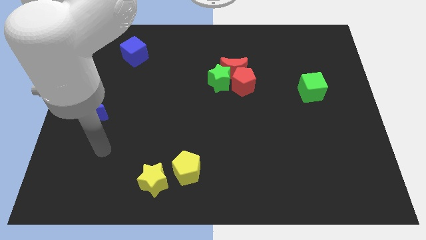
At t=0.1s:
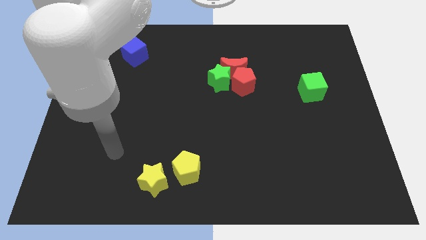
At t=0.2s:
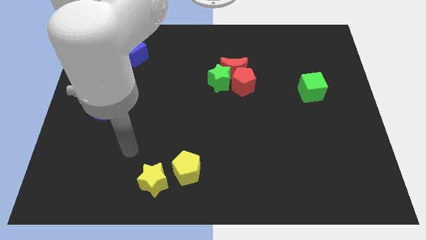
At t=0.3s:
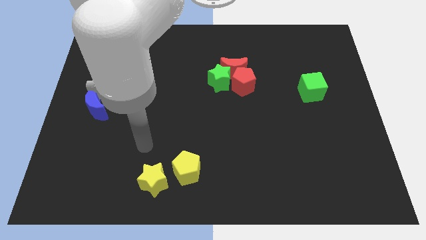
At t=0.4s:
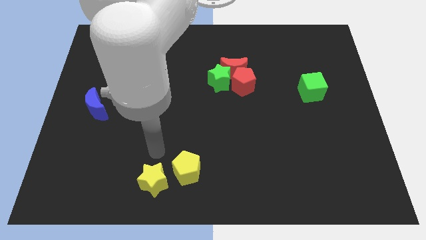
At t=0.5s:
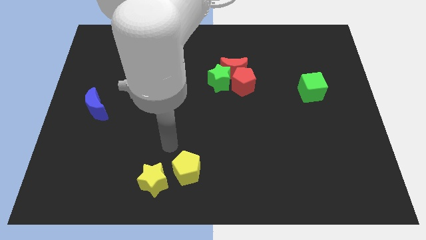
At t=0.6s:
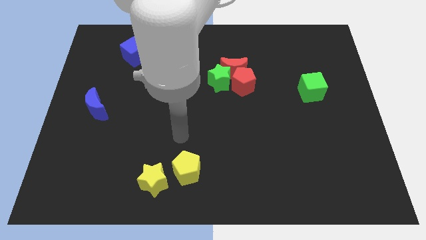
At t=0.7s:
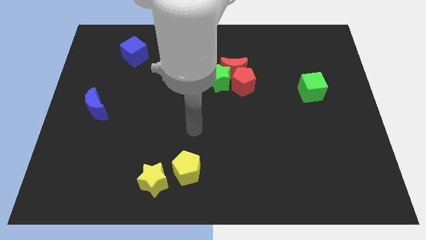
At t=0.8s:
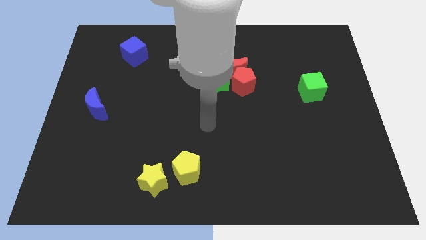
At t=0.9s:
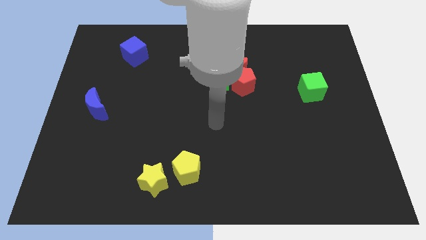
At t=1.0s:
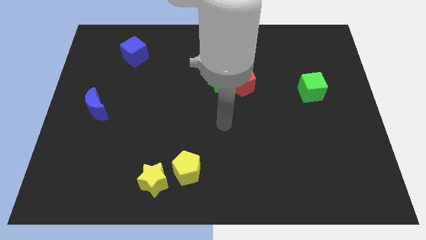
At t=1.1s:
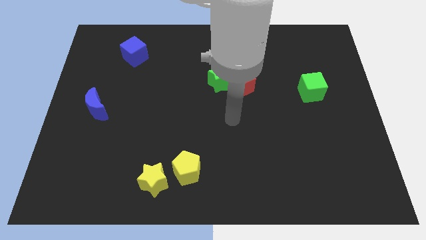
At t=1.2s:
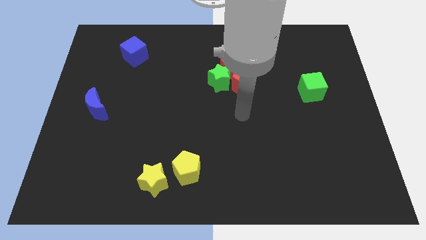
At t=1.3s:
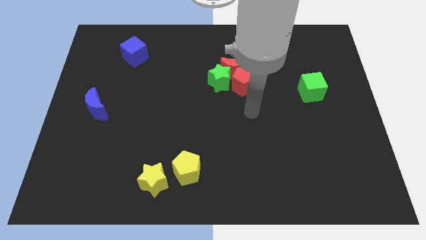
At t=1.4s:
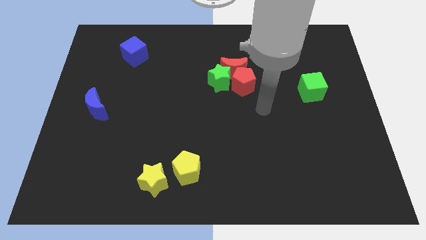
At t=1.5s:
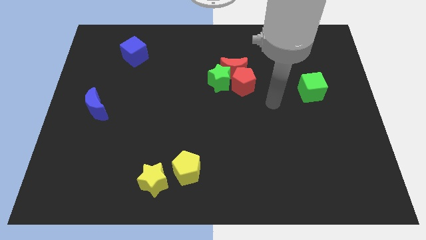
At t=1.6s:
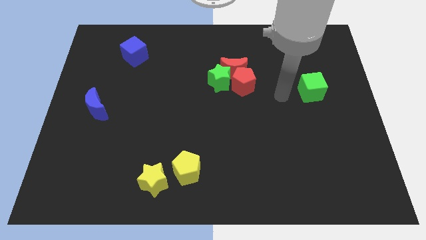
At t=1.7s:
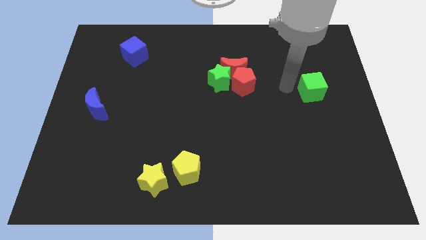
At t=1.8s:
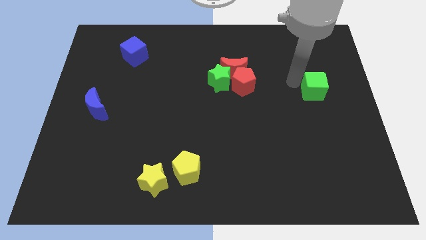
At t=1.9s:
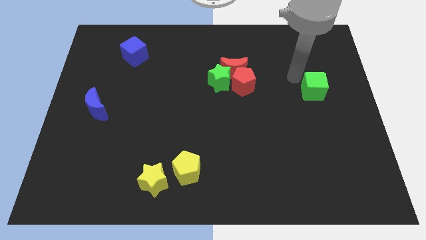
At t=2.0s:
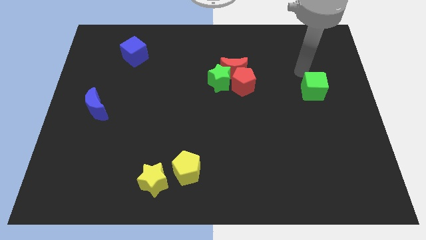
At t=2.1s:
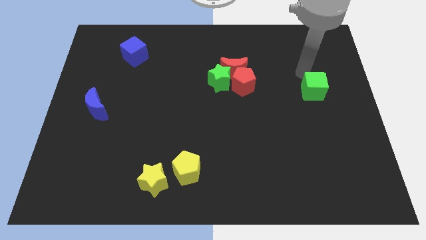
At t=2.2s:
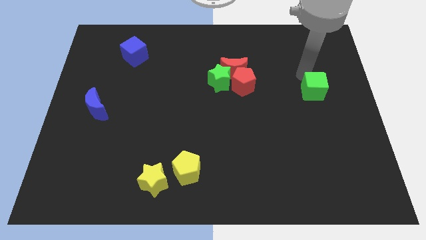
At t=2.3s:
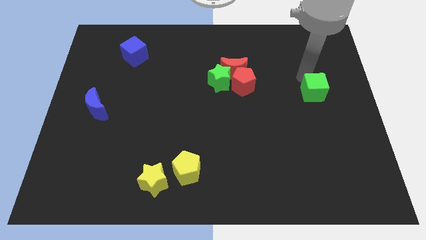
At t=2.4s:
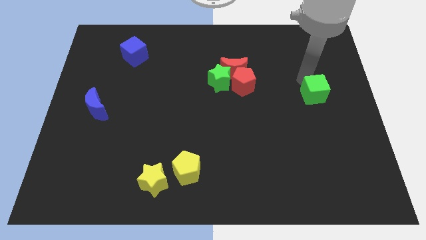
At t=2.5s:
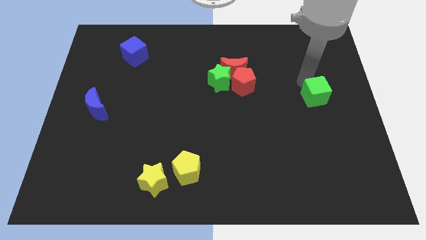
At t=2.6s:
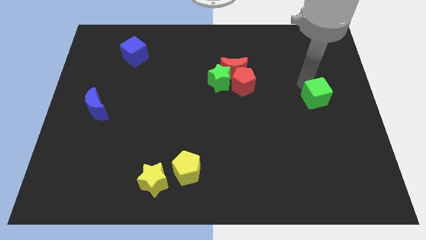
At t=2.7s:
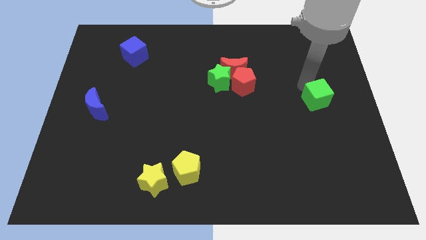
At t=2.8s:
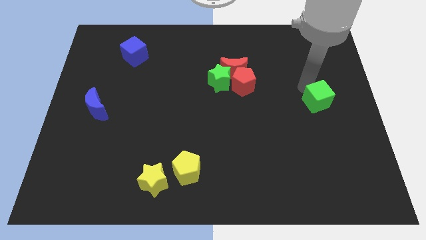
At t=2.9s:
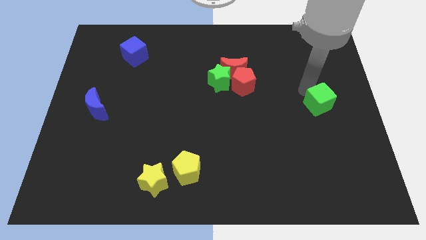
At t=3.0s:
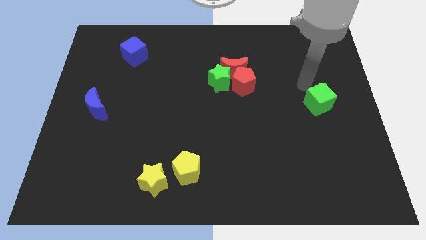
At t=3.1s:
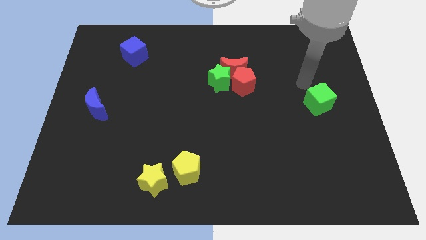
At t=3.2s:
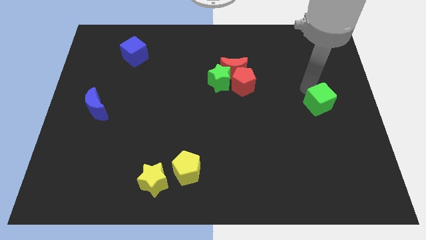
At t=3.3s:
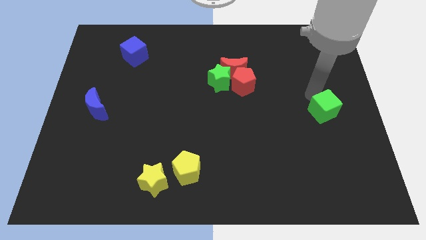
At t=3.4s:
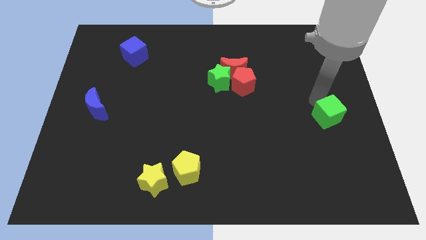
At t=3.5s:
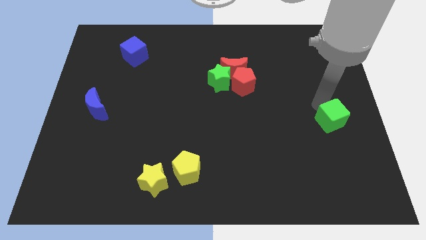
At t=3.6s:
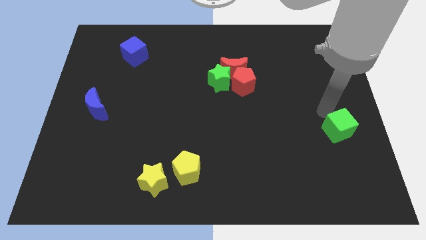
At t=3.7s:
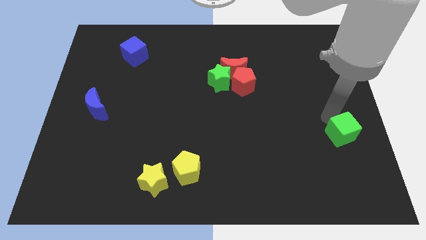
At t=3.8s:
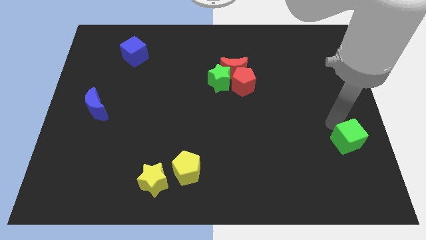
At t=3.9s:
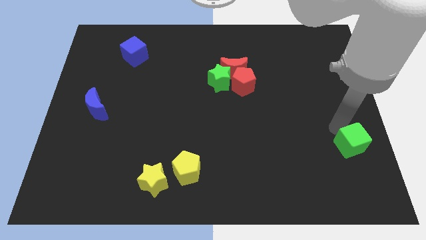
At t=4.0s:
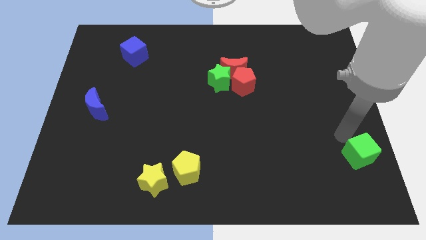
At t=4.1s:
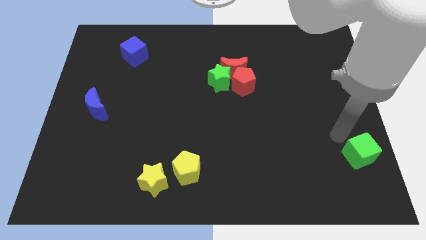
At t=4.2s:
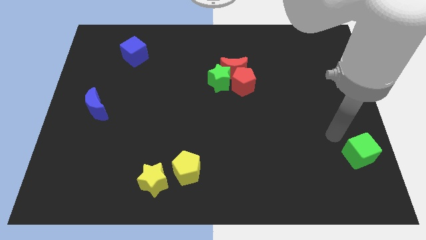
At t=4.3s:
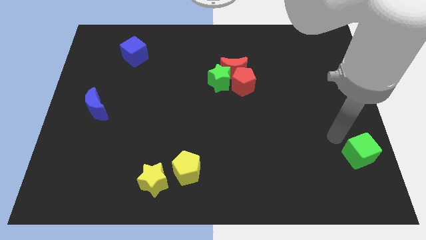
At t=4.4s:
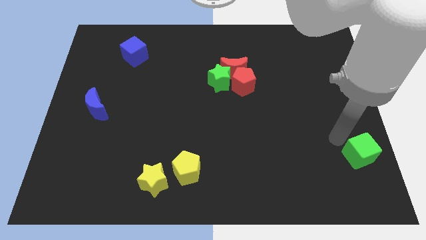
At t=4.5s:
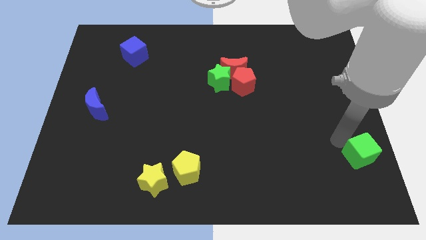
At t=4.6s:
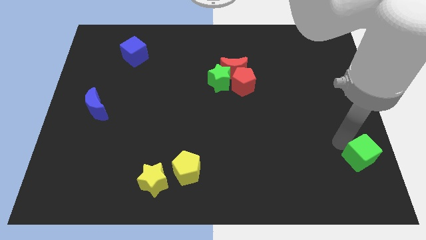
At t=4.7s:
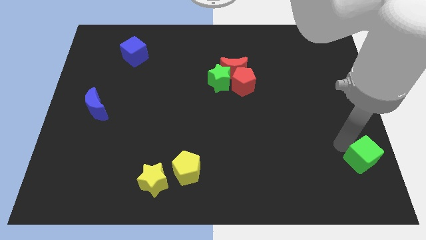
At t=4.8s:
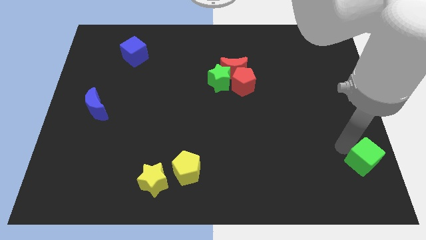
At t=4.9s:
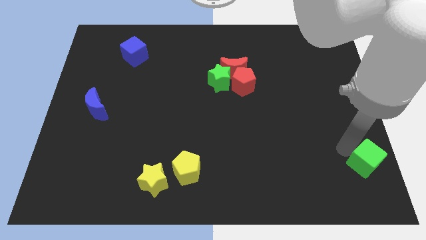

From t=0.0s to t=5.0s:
move the green cube to the bottom right

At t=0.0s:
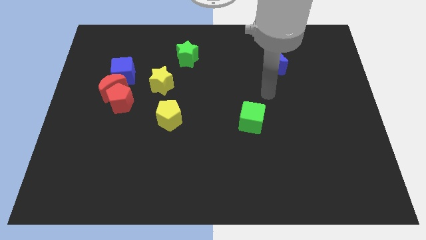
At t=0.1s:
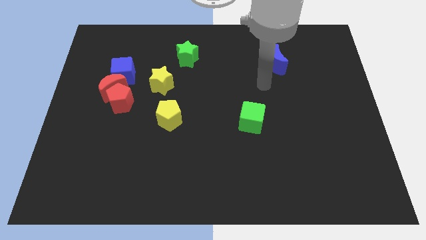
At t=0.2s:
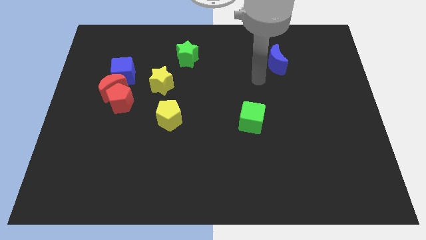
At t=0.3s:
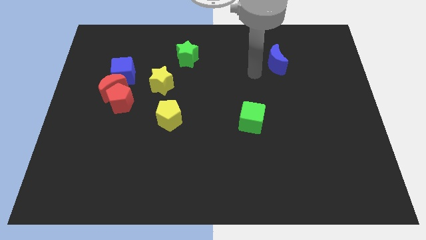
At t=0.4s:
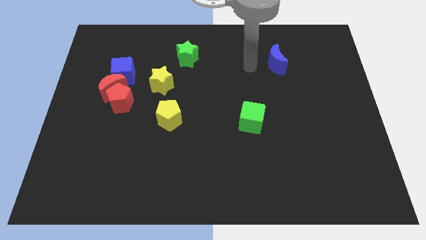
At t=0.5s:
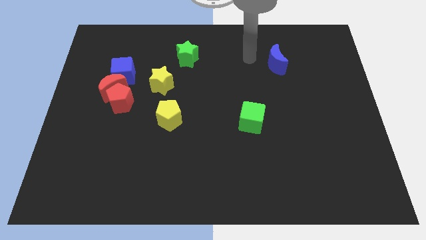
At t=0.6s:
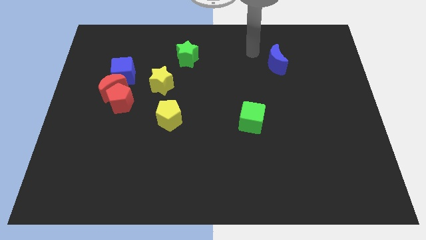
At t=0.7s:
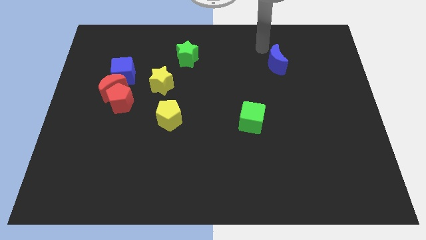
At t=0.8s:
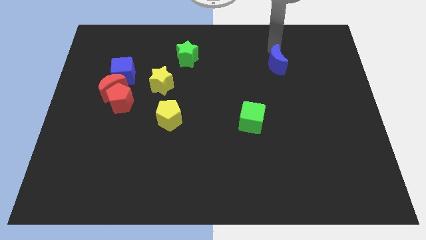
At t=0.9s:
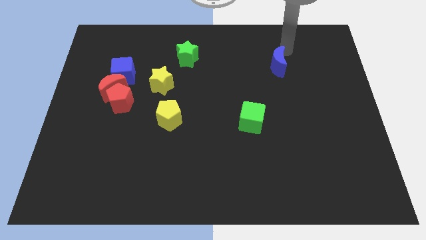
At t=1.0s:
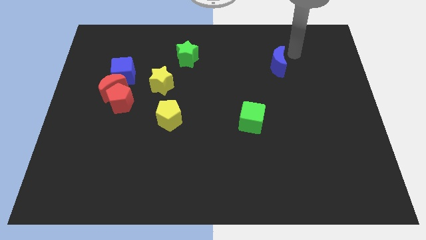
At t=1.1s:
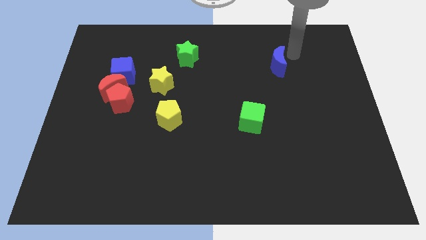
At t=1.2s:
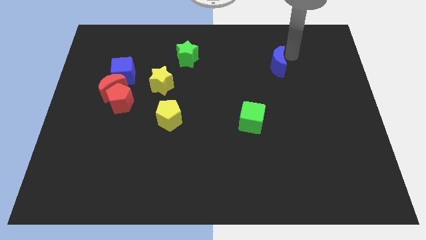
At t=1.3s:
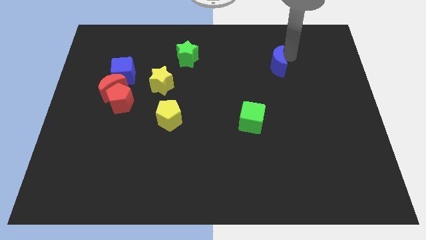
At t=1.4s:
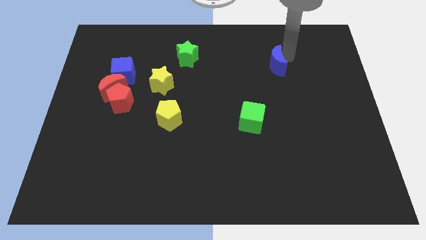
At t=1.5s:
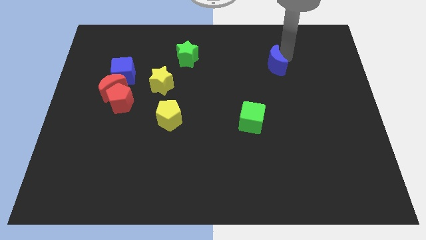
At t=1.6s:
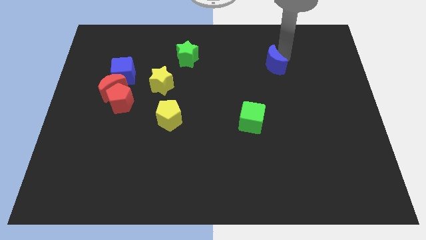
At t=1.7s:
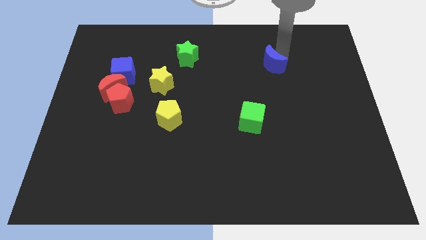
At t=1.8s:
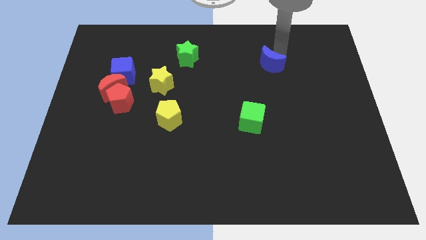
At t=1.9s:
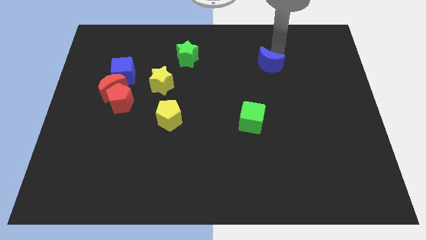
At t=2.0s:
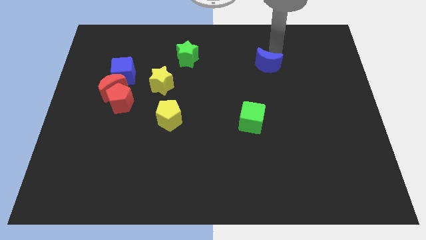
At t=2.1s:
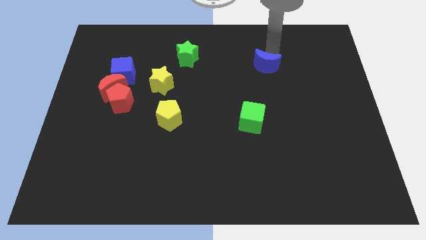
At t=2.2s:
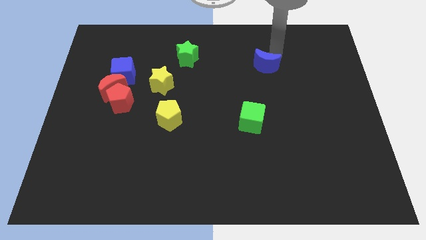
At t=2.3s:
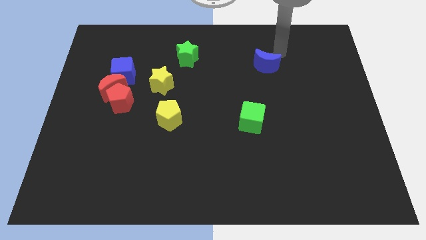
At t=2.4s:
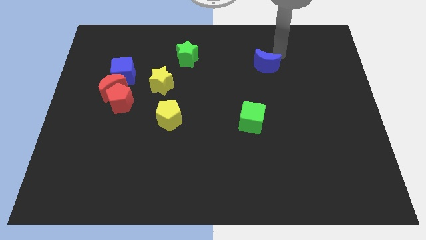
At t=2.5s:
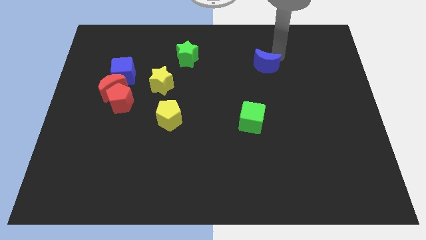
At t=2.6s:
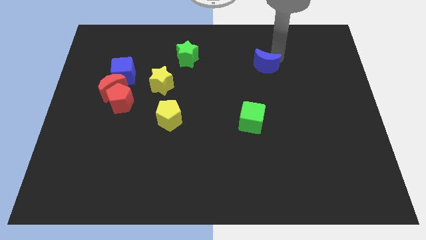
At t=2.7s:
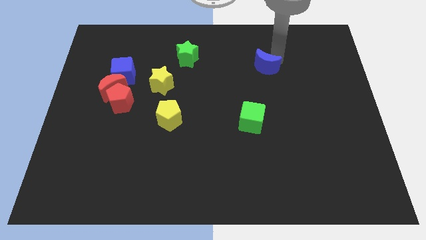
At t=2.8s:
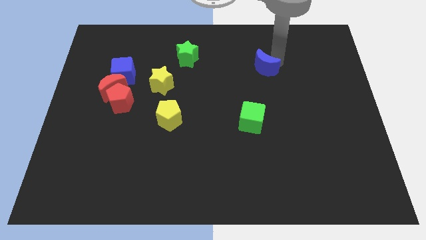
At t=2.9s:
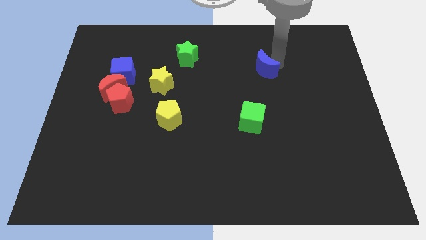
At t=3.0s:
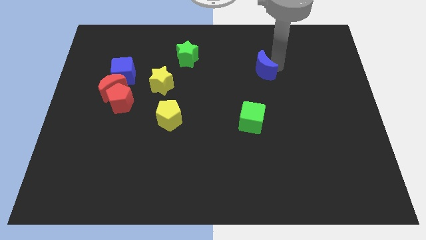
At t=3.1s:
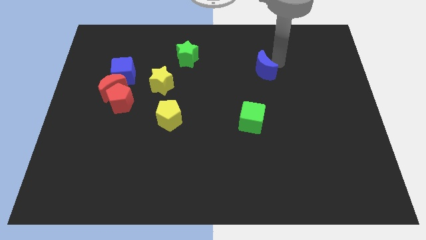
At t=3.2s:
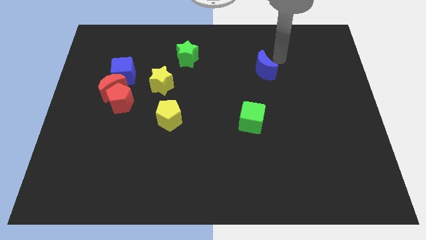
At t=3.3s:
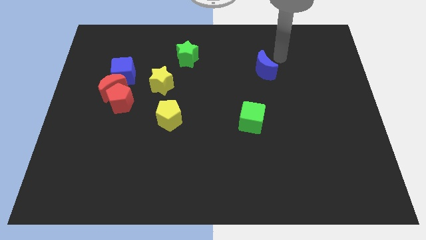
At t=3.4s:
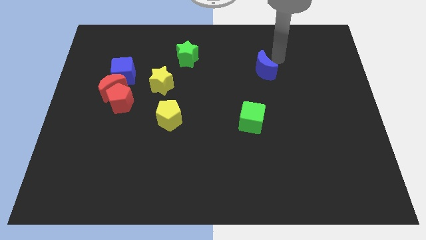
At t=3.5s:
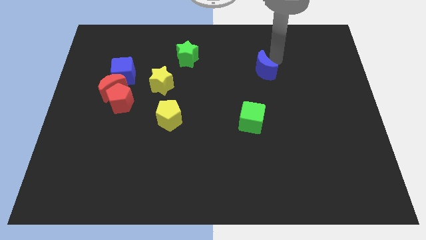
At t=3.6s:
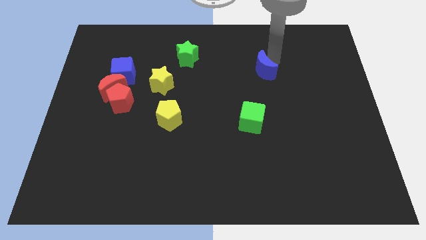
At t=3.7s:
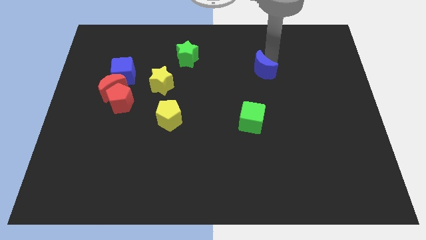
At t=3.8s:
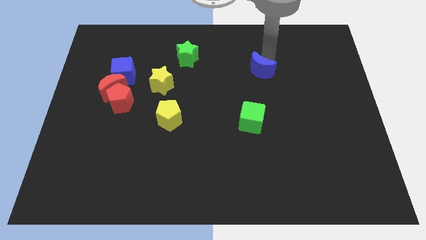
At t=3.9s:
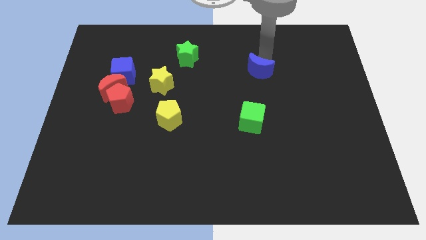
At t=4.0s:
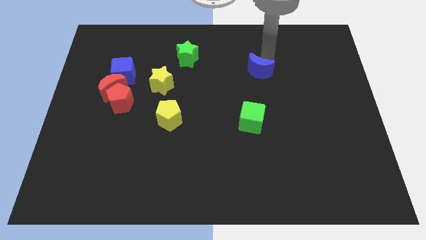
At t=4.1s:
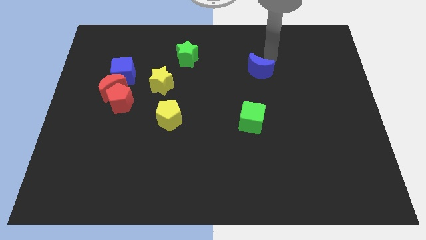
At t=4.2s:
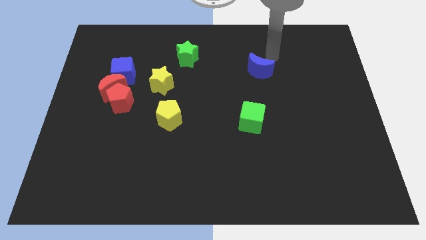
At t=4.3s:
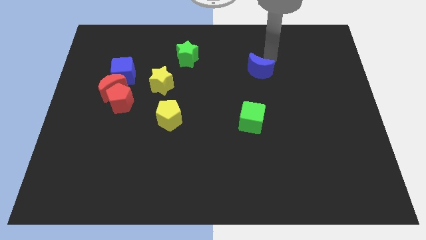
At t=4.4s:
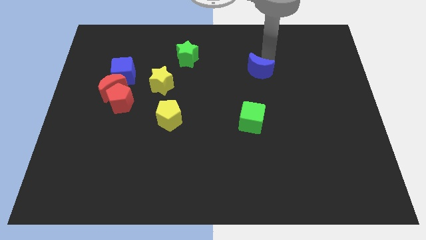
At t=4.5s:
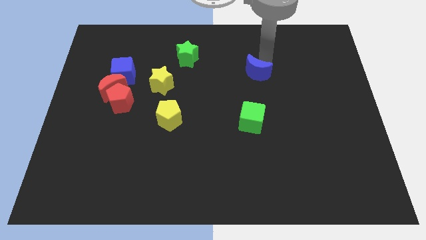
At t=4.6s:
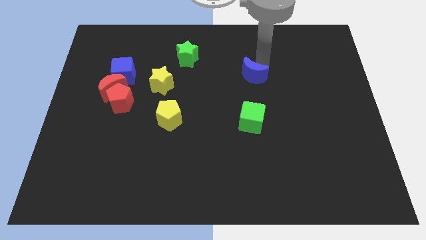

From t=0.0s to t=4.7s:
slide the blue moon to the middle of the board
